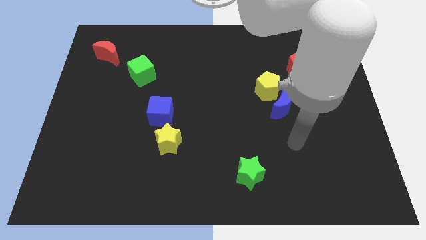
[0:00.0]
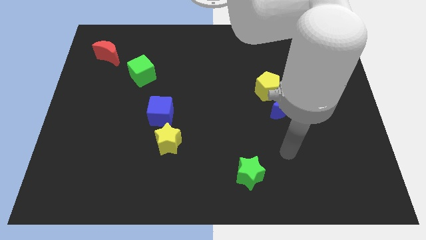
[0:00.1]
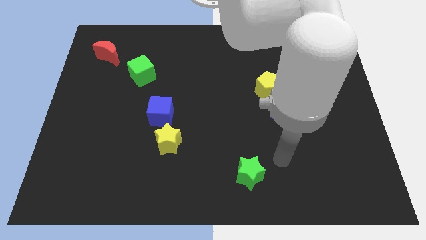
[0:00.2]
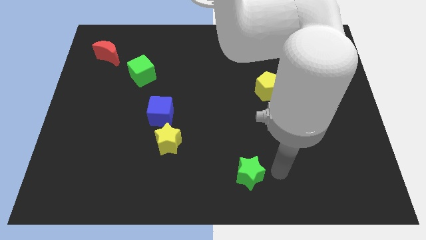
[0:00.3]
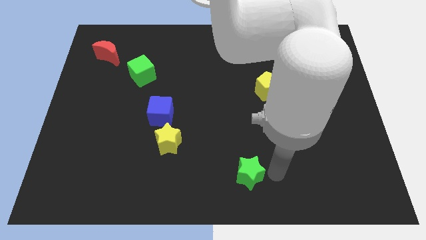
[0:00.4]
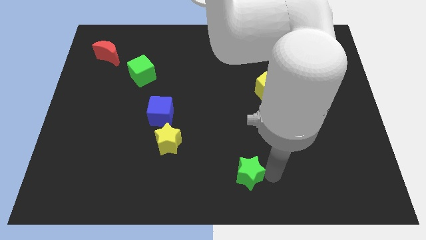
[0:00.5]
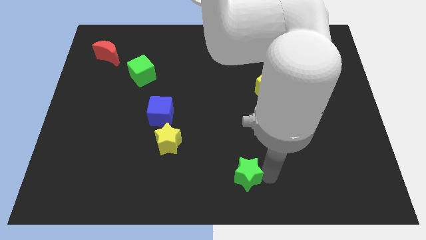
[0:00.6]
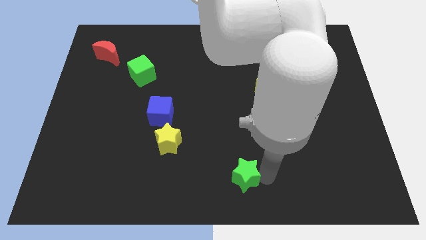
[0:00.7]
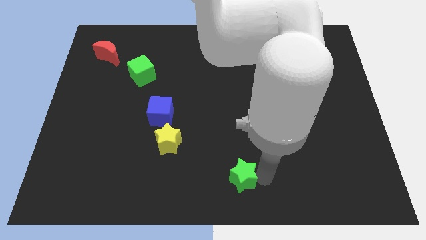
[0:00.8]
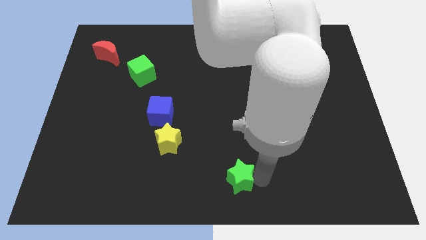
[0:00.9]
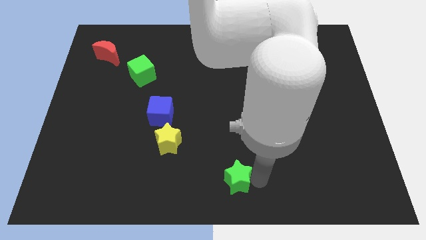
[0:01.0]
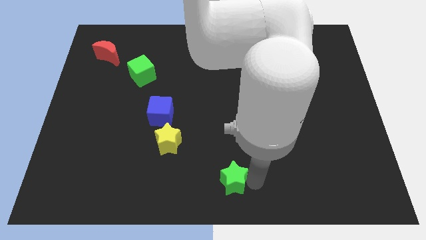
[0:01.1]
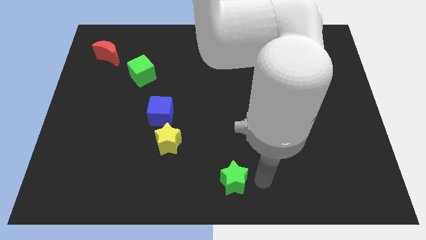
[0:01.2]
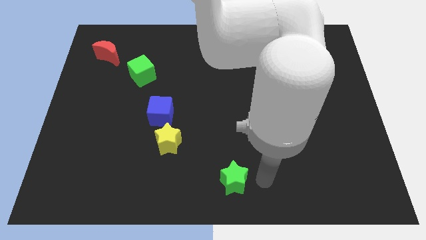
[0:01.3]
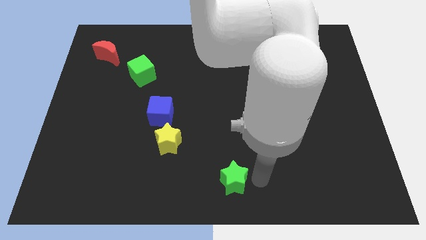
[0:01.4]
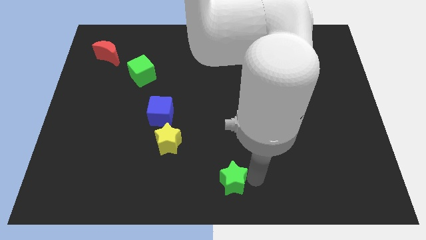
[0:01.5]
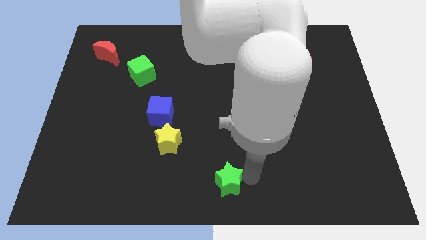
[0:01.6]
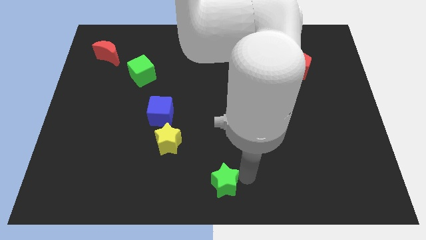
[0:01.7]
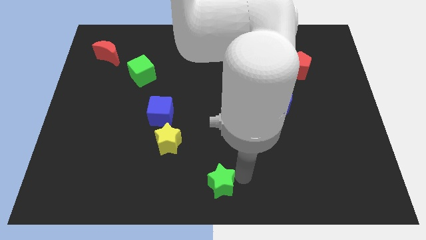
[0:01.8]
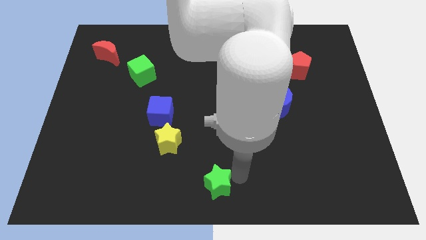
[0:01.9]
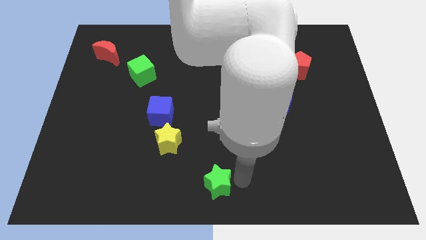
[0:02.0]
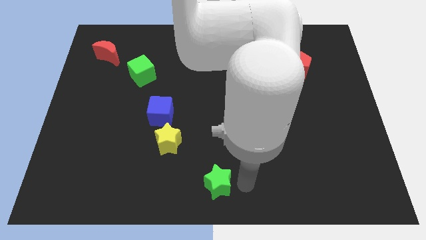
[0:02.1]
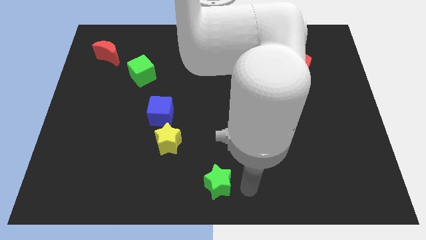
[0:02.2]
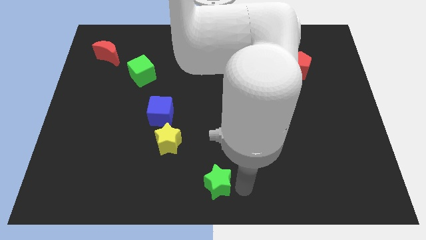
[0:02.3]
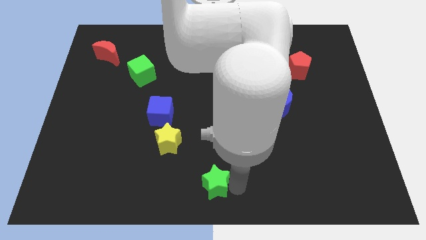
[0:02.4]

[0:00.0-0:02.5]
slightly slide the green star left

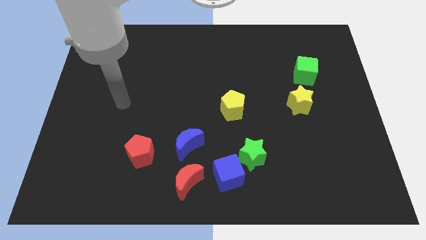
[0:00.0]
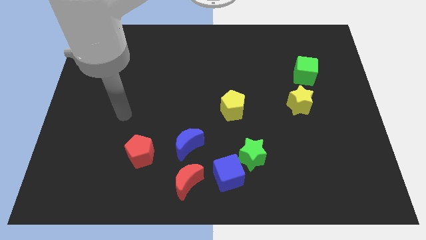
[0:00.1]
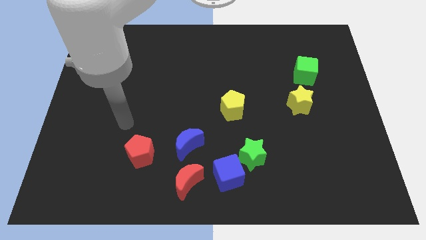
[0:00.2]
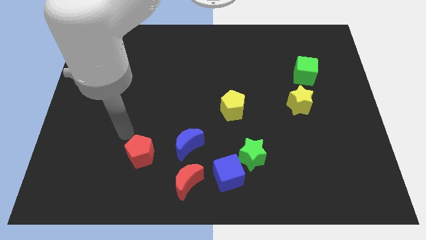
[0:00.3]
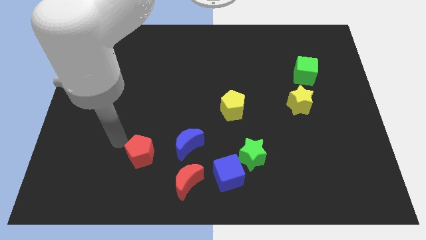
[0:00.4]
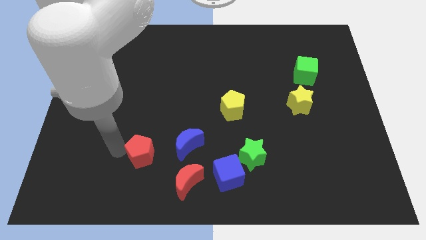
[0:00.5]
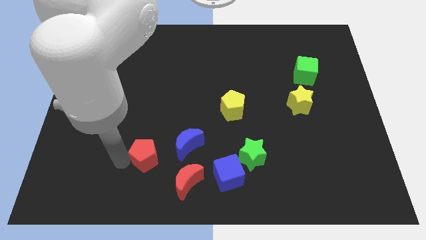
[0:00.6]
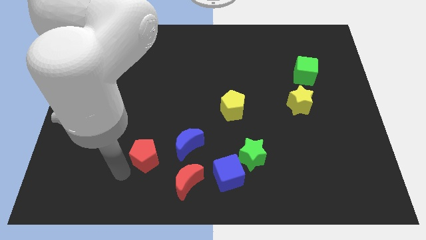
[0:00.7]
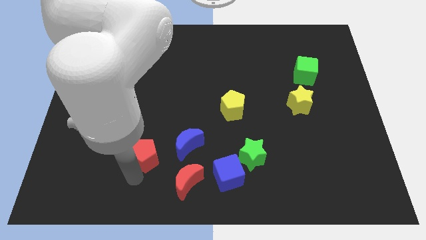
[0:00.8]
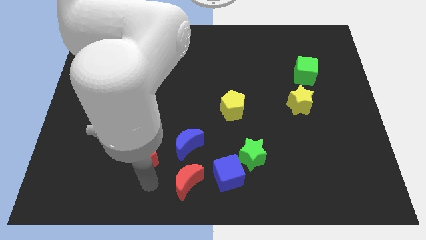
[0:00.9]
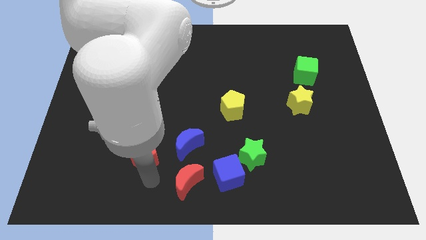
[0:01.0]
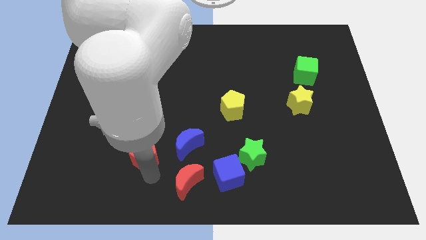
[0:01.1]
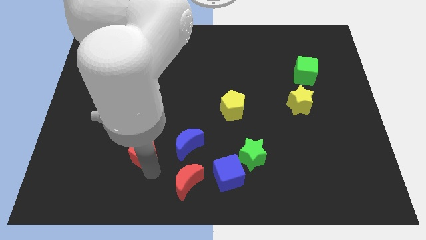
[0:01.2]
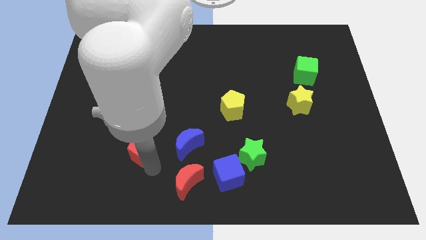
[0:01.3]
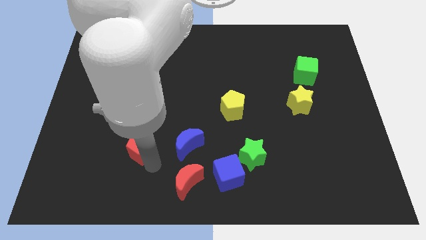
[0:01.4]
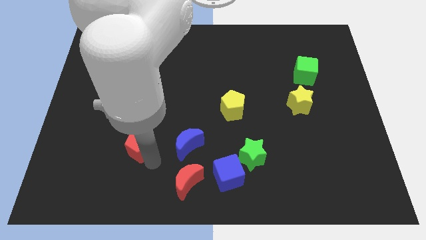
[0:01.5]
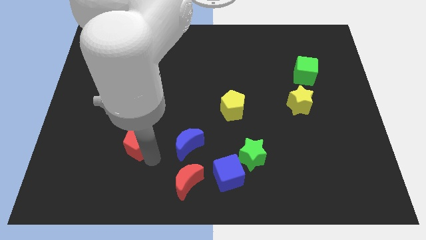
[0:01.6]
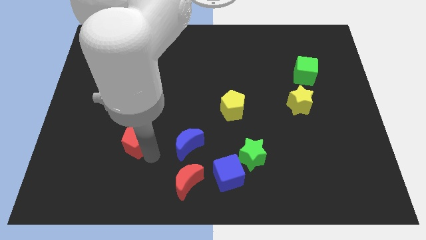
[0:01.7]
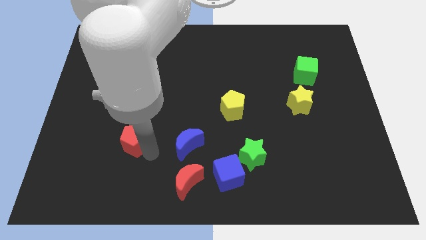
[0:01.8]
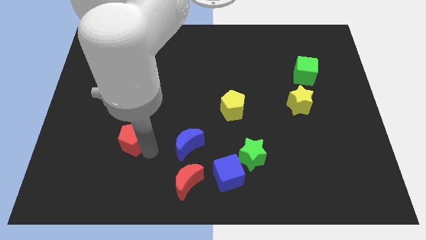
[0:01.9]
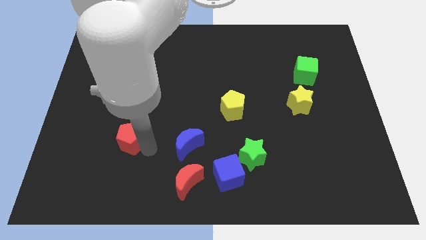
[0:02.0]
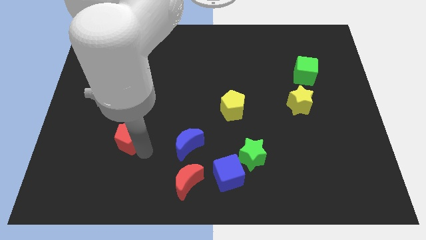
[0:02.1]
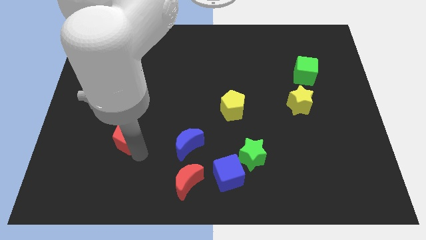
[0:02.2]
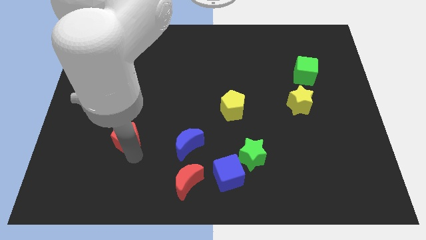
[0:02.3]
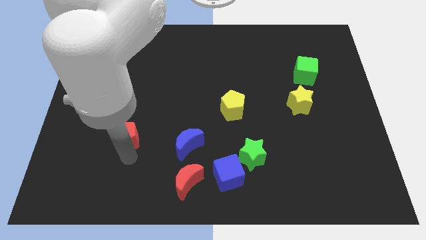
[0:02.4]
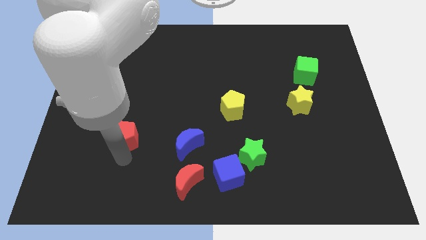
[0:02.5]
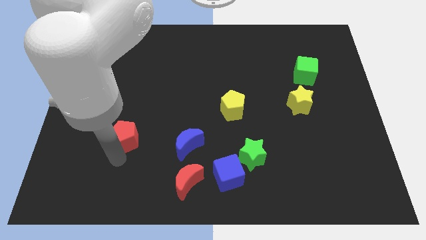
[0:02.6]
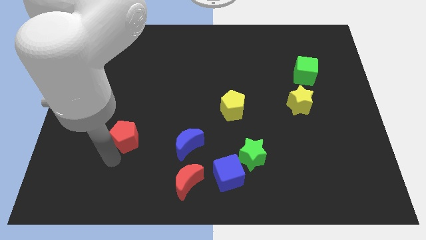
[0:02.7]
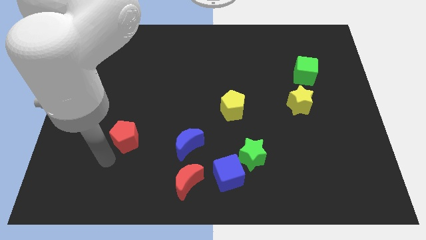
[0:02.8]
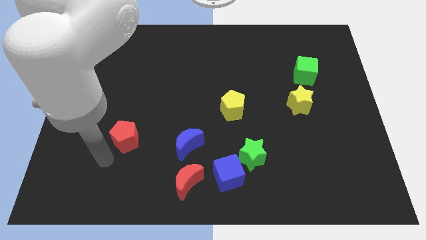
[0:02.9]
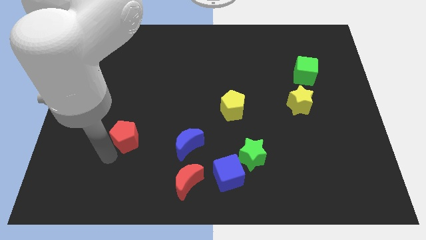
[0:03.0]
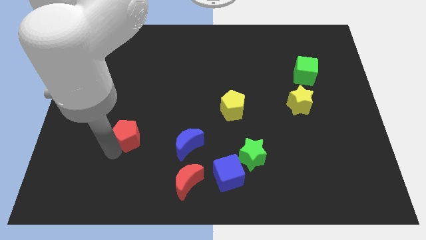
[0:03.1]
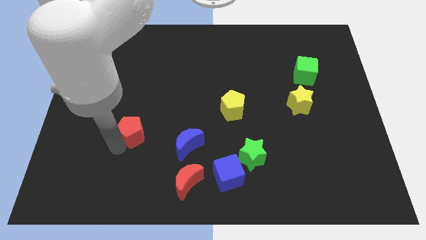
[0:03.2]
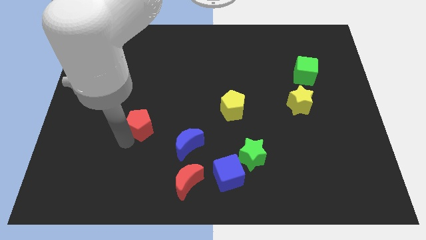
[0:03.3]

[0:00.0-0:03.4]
slide the red pentagon upwards a little

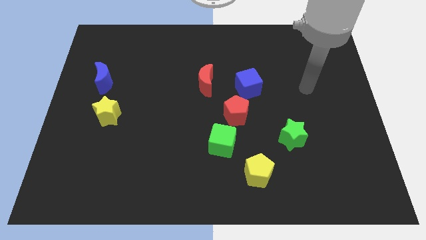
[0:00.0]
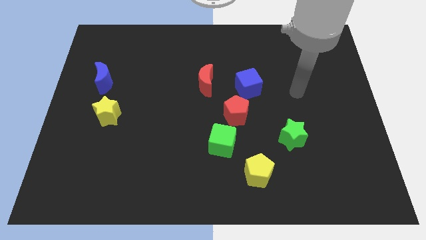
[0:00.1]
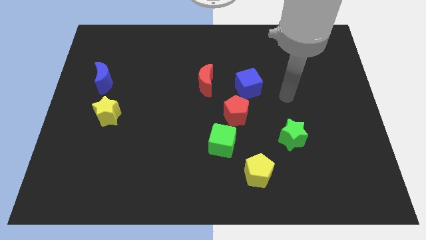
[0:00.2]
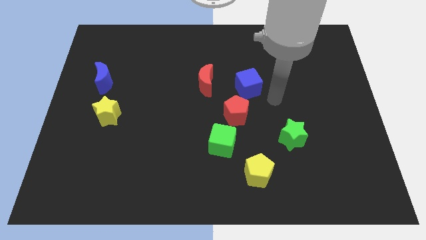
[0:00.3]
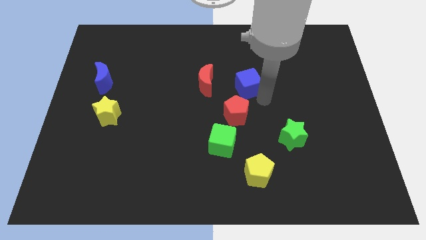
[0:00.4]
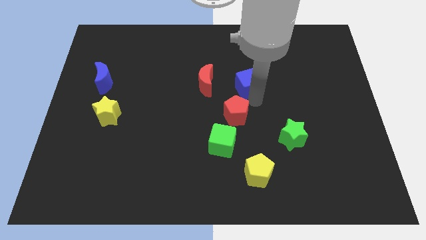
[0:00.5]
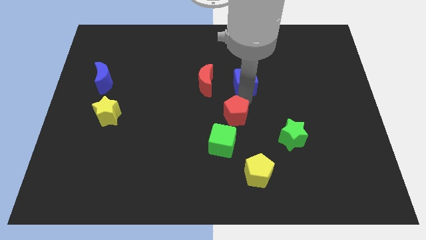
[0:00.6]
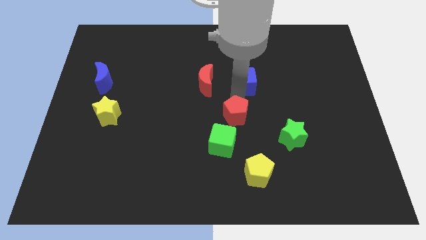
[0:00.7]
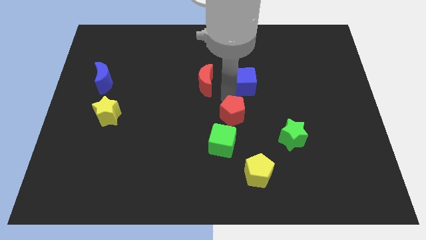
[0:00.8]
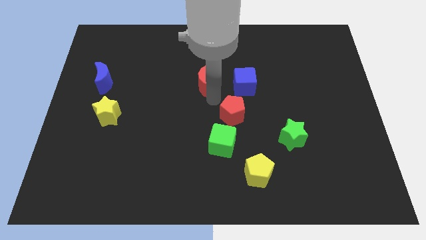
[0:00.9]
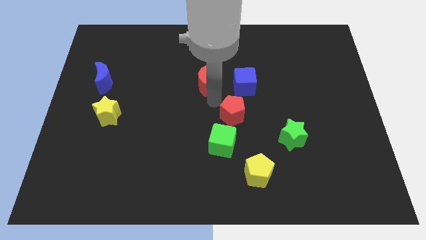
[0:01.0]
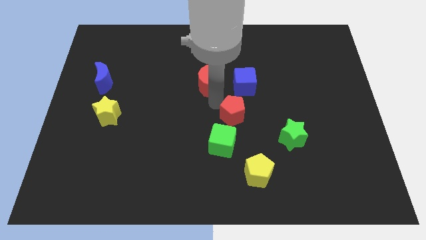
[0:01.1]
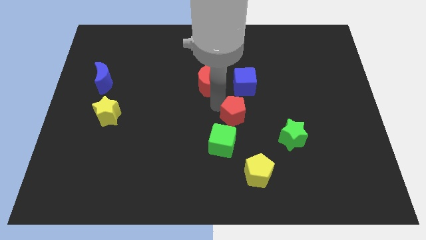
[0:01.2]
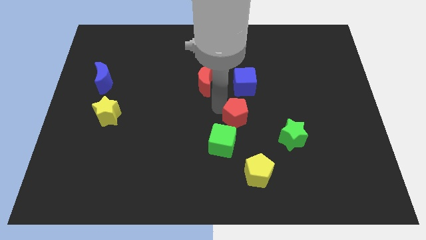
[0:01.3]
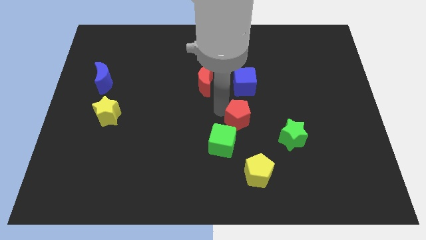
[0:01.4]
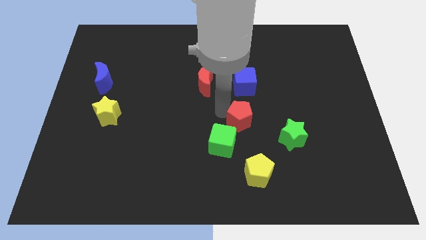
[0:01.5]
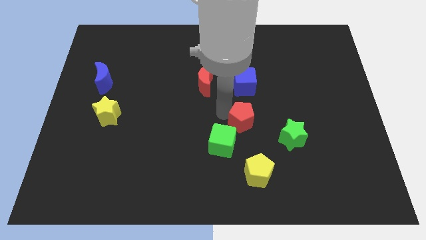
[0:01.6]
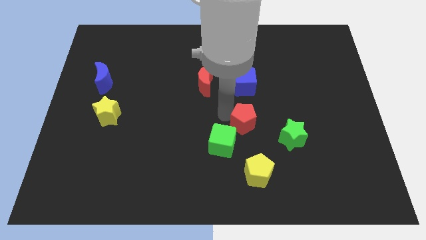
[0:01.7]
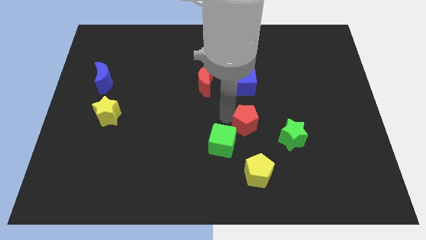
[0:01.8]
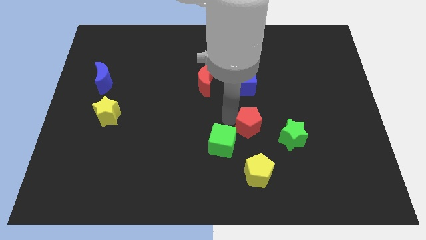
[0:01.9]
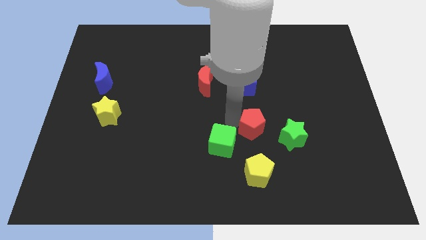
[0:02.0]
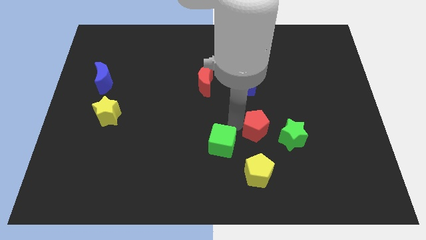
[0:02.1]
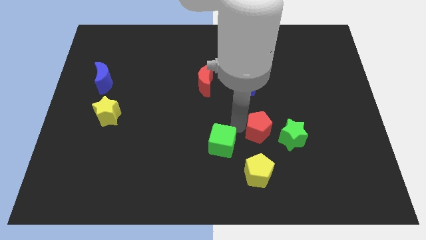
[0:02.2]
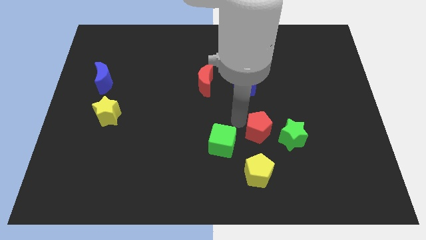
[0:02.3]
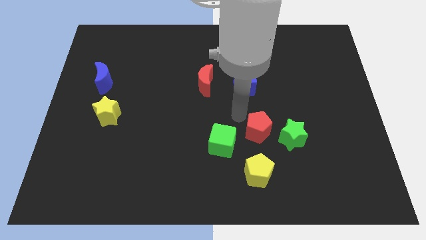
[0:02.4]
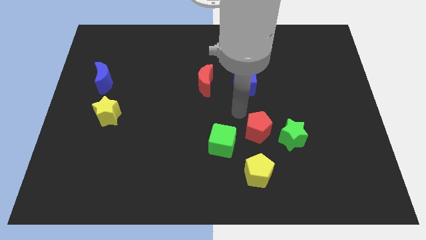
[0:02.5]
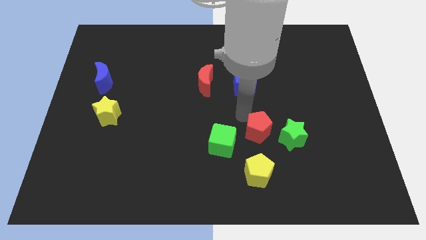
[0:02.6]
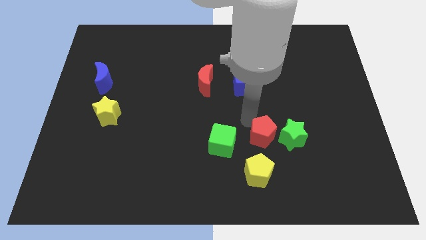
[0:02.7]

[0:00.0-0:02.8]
push the red pentagon somewhat down and right
